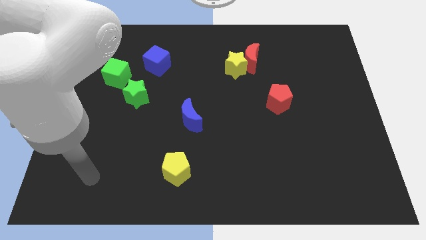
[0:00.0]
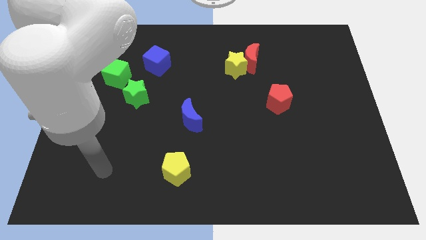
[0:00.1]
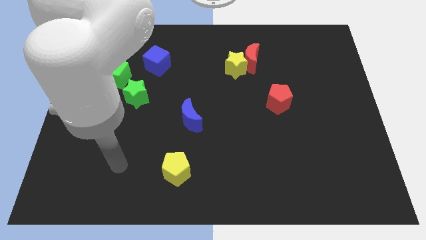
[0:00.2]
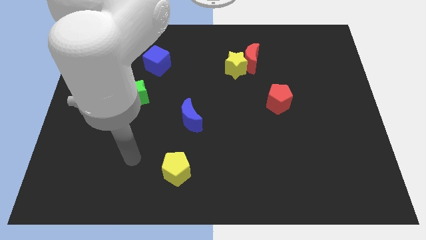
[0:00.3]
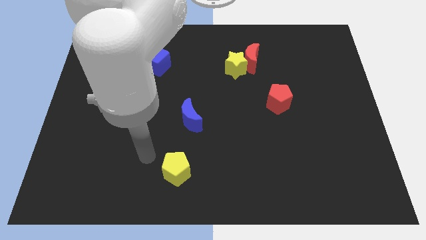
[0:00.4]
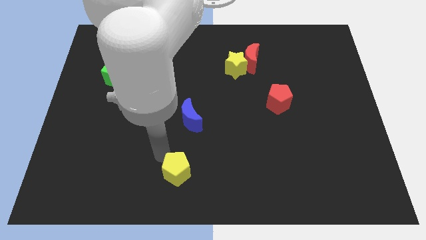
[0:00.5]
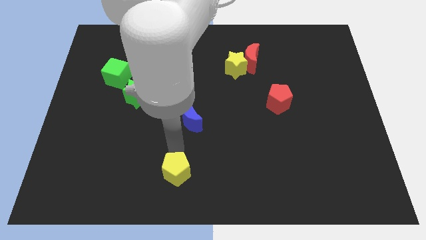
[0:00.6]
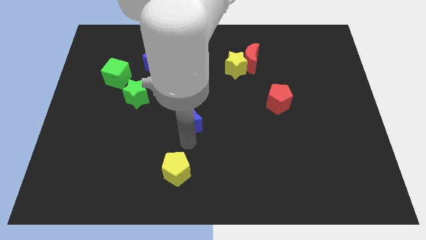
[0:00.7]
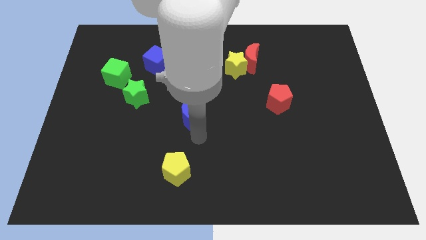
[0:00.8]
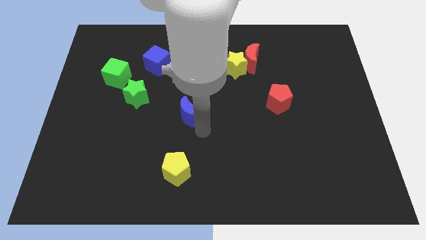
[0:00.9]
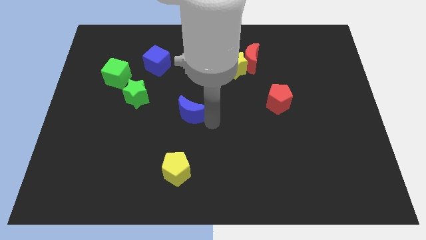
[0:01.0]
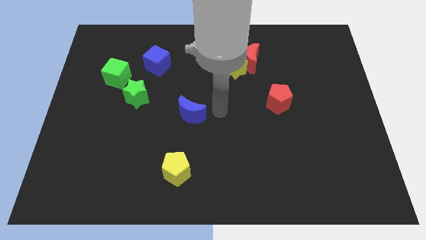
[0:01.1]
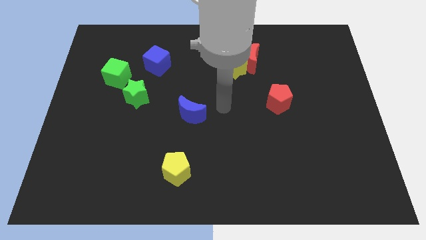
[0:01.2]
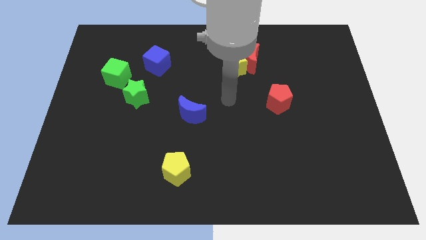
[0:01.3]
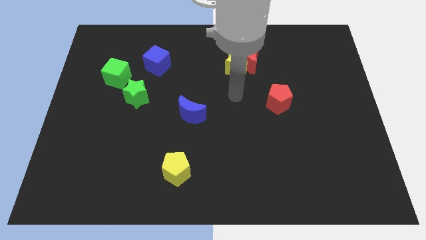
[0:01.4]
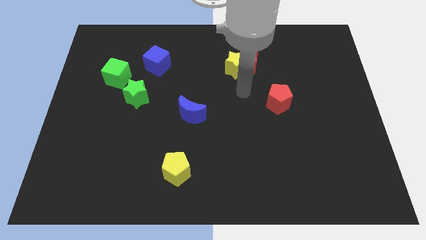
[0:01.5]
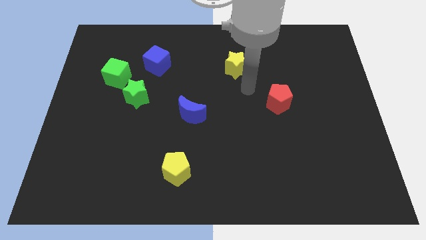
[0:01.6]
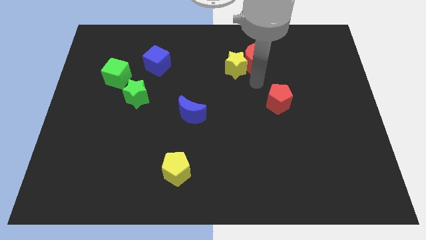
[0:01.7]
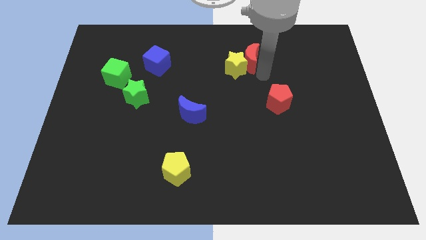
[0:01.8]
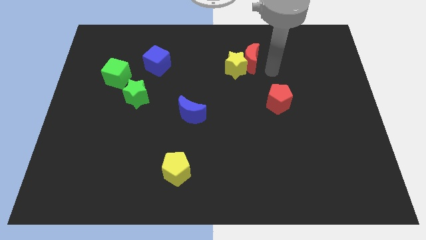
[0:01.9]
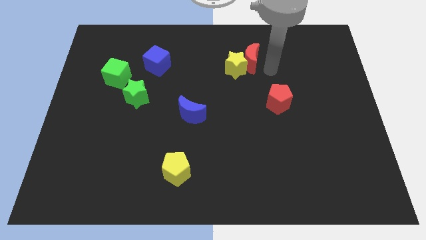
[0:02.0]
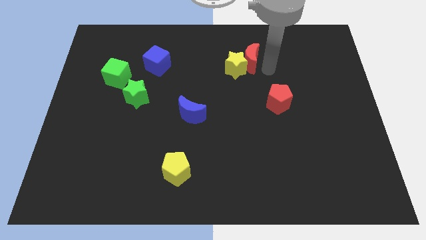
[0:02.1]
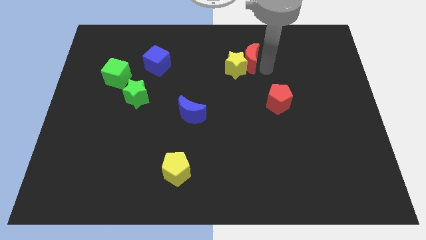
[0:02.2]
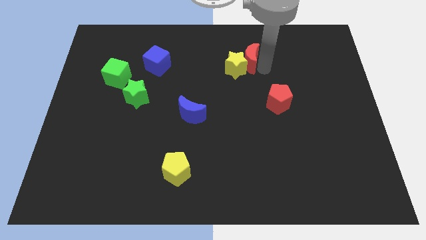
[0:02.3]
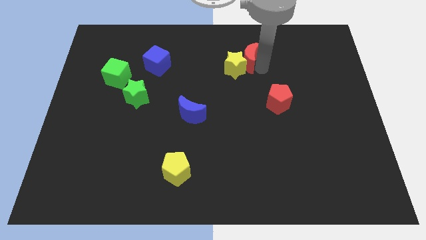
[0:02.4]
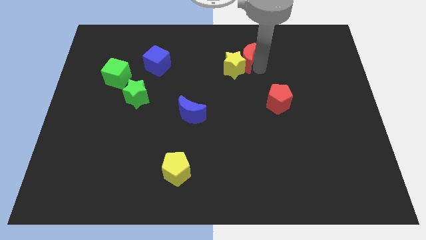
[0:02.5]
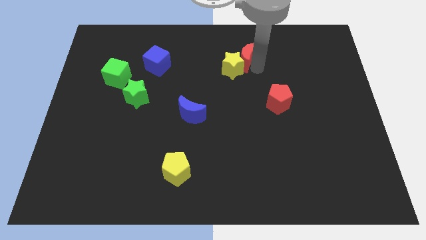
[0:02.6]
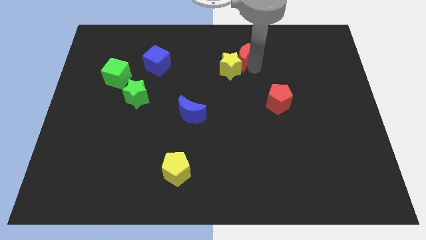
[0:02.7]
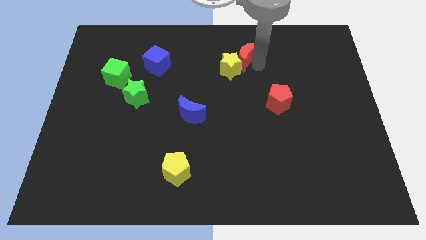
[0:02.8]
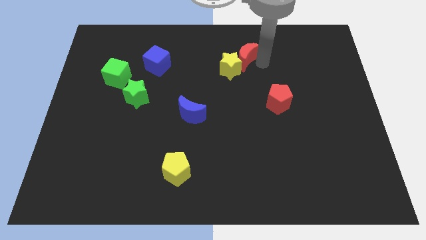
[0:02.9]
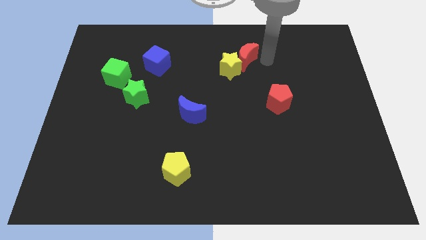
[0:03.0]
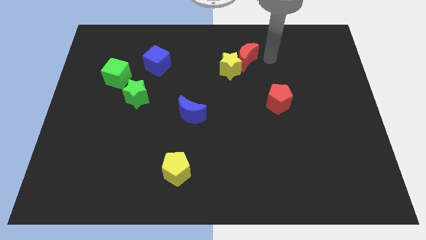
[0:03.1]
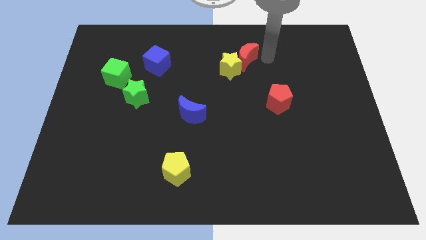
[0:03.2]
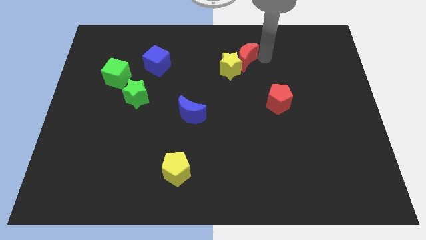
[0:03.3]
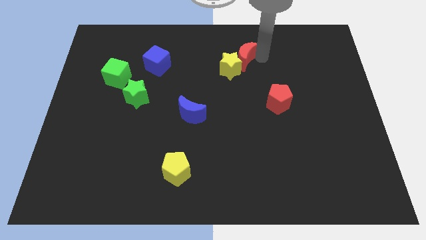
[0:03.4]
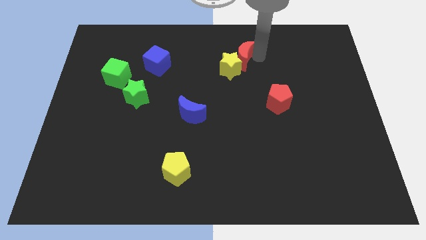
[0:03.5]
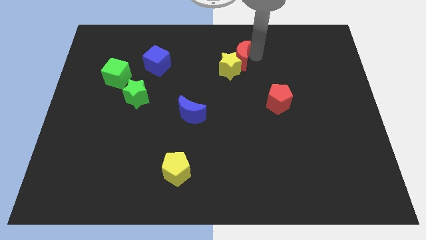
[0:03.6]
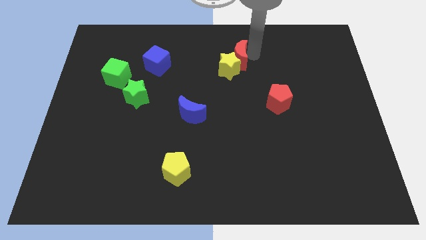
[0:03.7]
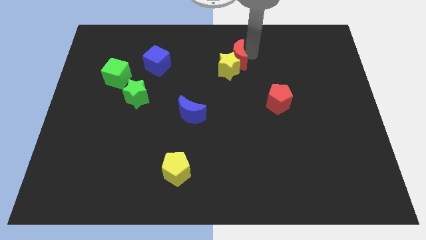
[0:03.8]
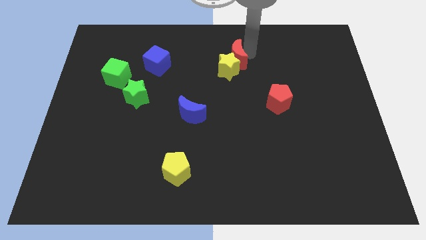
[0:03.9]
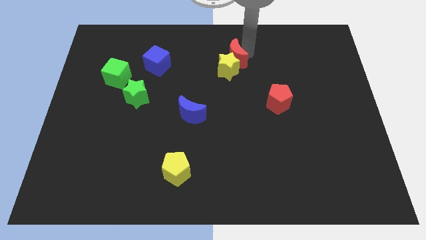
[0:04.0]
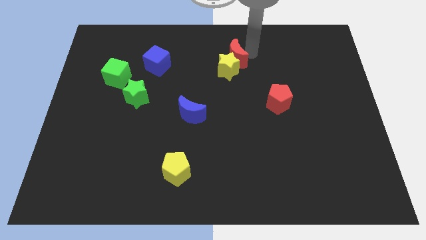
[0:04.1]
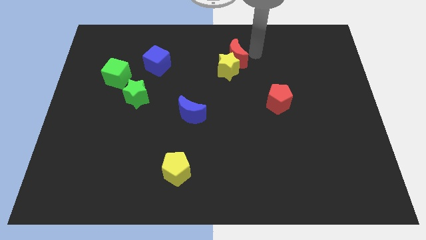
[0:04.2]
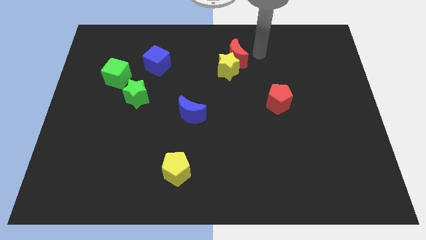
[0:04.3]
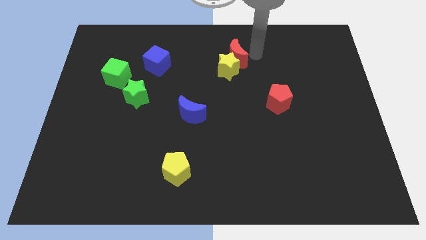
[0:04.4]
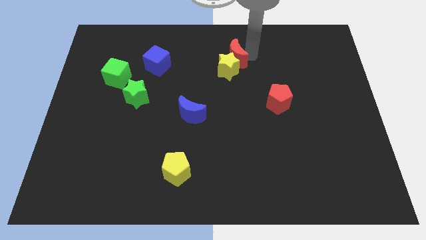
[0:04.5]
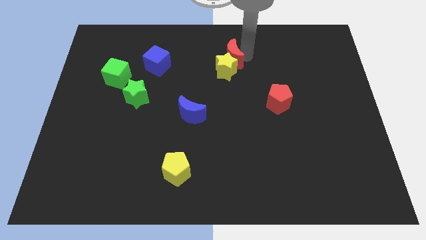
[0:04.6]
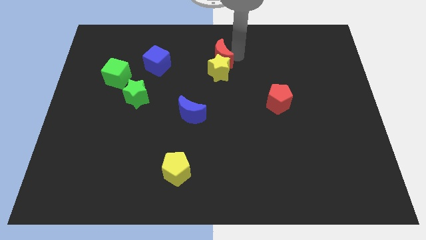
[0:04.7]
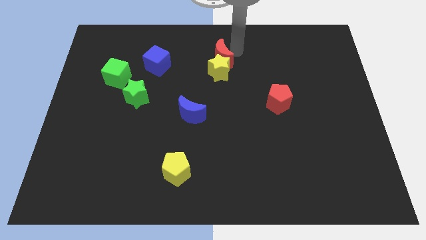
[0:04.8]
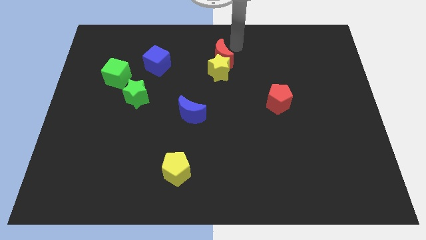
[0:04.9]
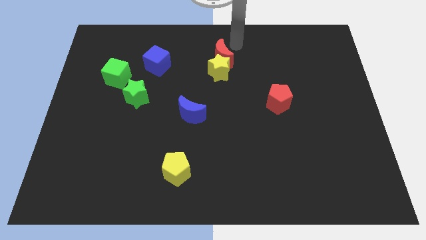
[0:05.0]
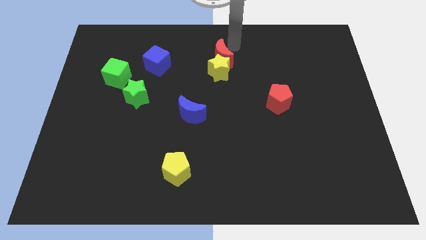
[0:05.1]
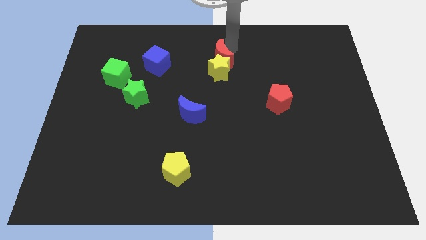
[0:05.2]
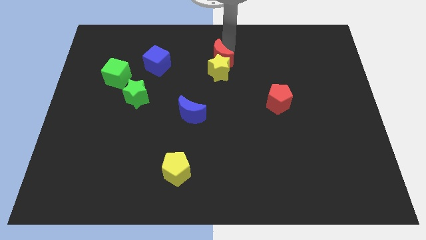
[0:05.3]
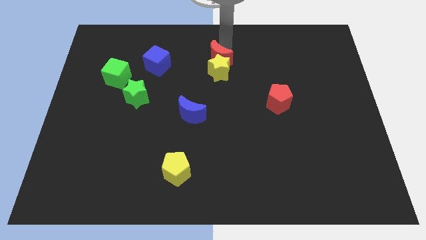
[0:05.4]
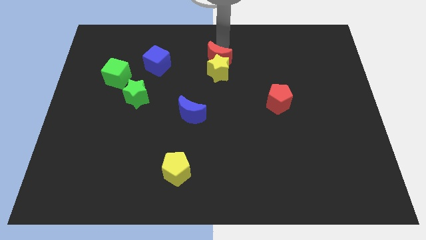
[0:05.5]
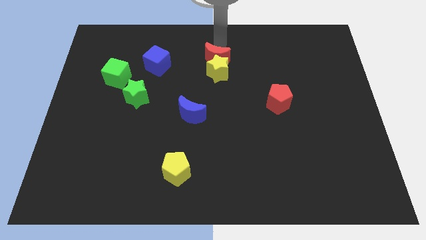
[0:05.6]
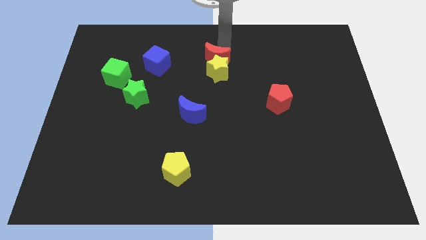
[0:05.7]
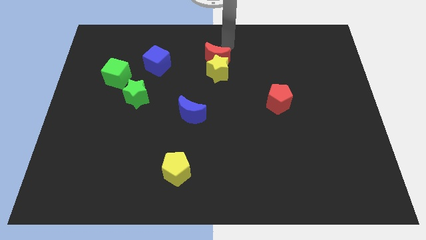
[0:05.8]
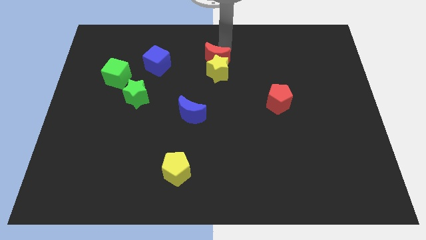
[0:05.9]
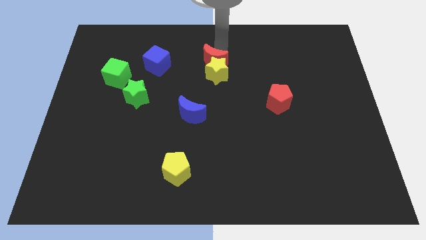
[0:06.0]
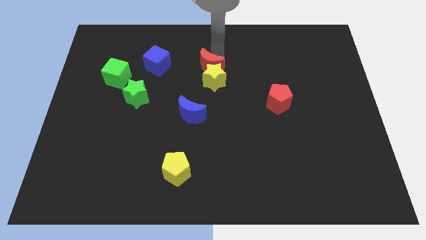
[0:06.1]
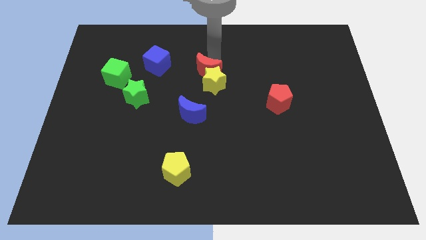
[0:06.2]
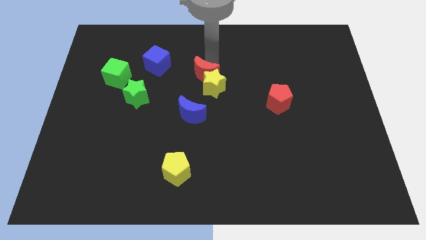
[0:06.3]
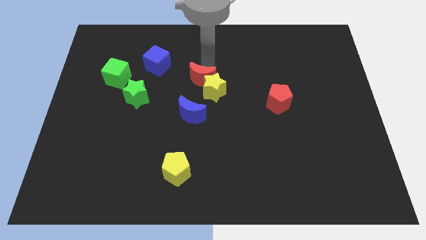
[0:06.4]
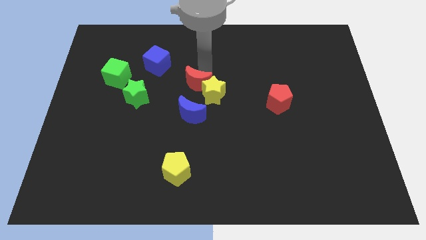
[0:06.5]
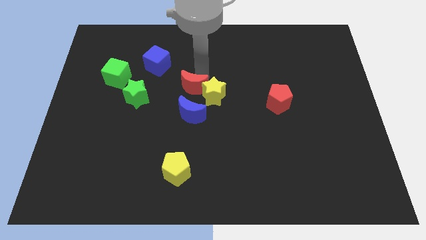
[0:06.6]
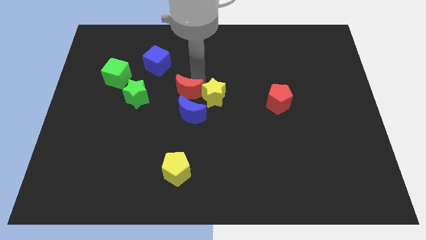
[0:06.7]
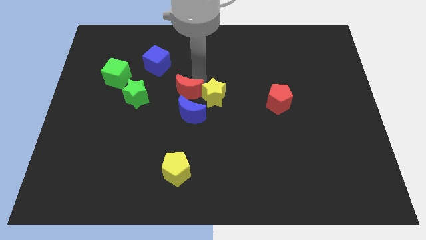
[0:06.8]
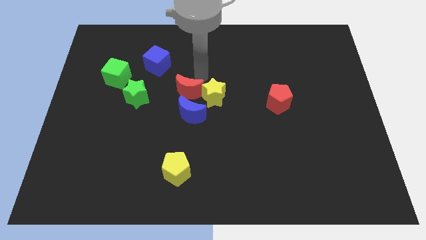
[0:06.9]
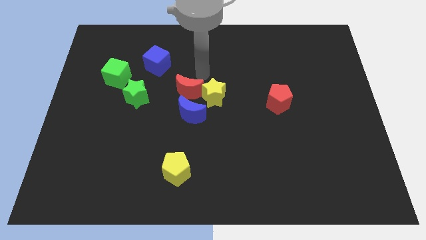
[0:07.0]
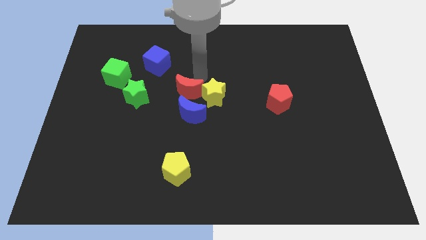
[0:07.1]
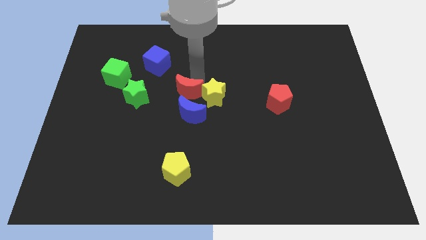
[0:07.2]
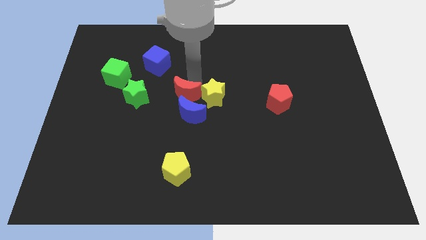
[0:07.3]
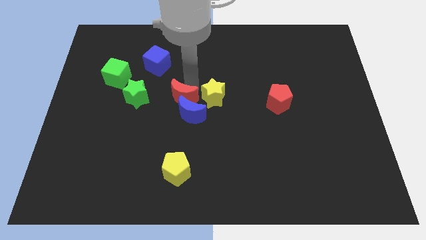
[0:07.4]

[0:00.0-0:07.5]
slide the red moon diagonally downwards and to the left

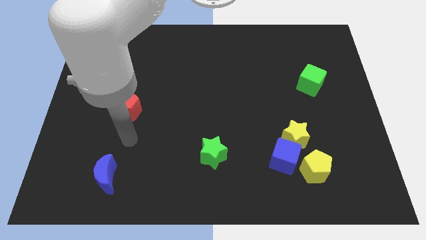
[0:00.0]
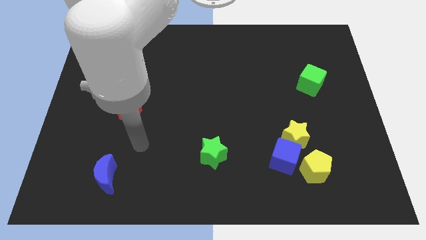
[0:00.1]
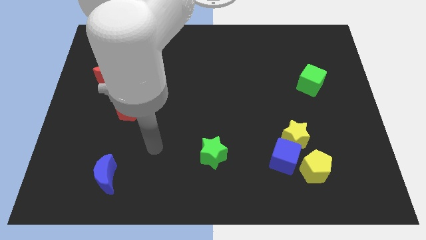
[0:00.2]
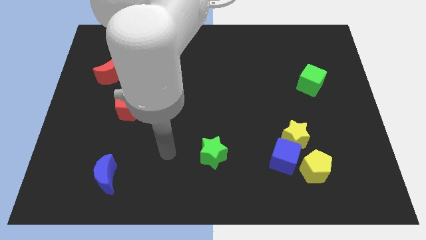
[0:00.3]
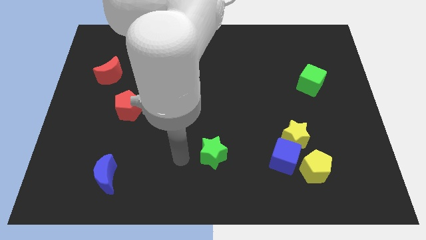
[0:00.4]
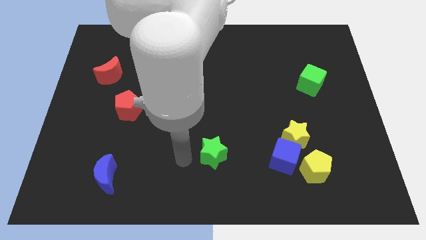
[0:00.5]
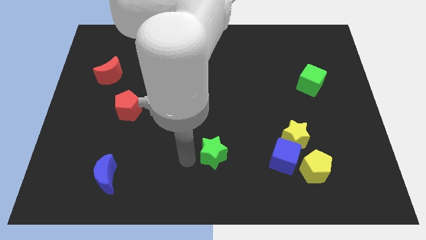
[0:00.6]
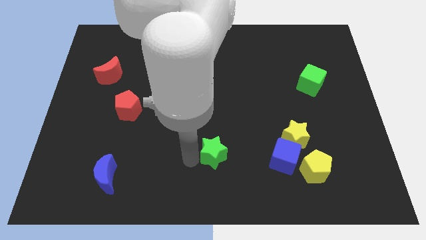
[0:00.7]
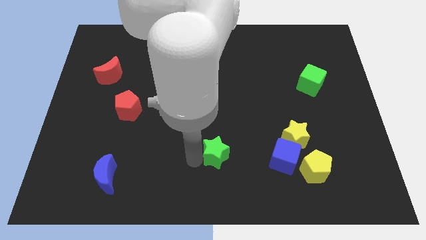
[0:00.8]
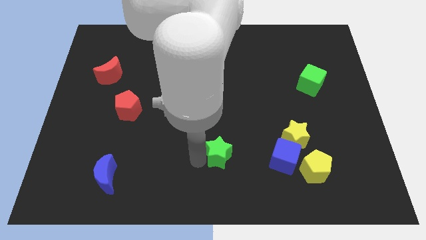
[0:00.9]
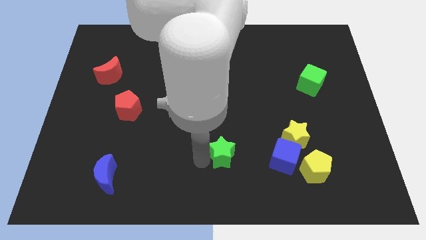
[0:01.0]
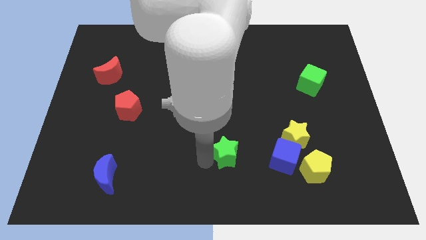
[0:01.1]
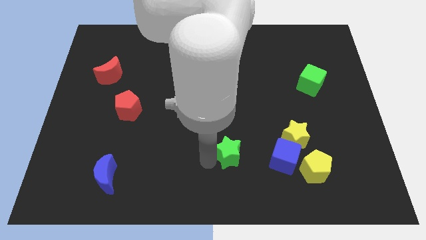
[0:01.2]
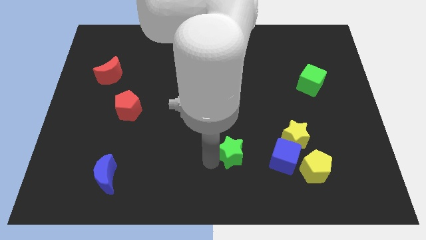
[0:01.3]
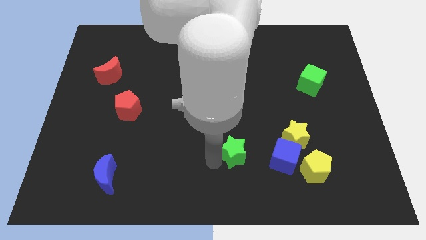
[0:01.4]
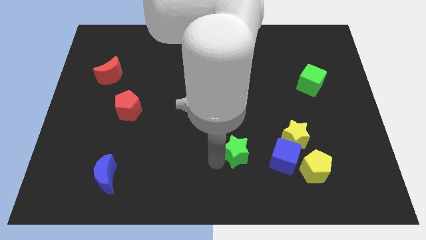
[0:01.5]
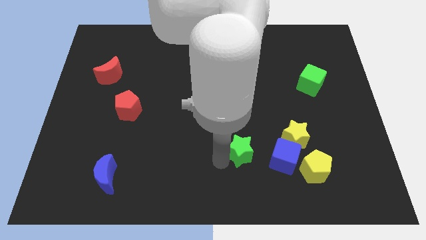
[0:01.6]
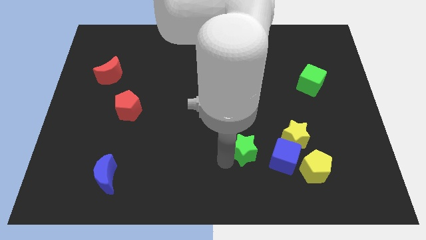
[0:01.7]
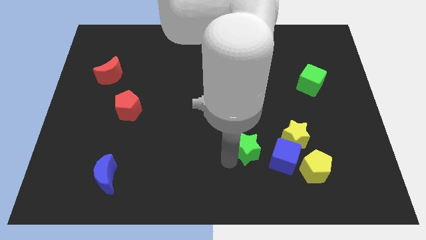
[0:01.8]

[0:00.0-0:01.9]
slightly slide the green star right
